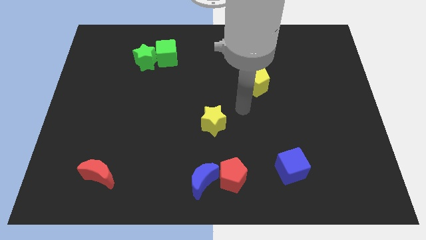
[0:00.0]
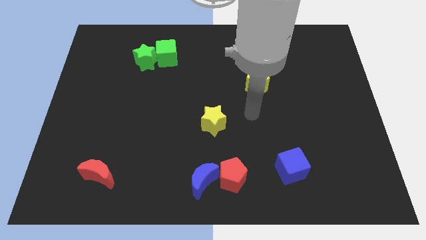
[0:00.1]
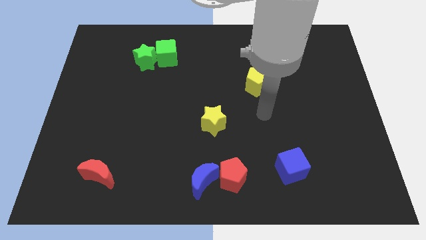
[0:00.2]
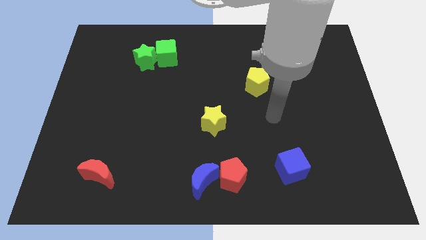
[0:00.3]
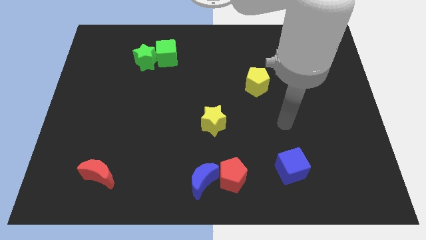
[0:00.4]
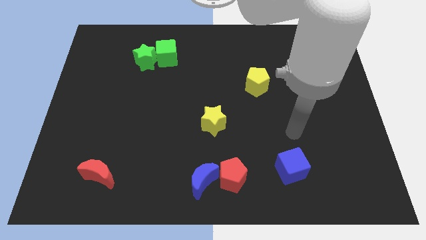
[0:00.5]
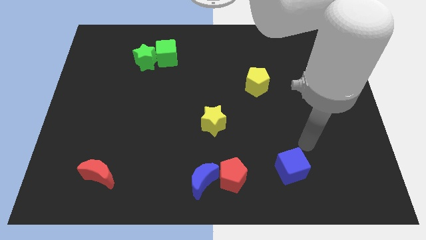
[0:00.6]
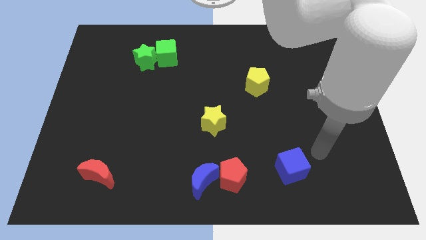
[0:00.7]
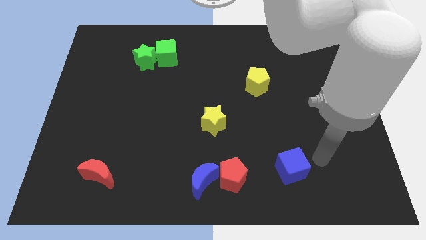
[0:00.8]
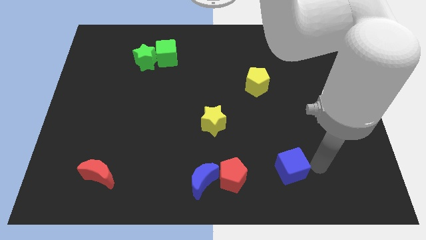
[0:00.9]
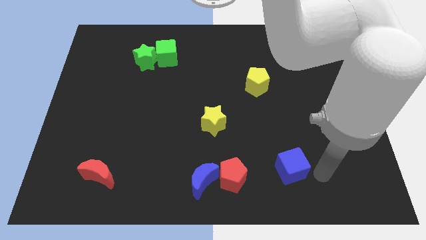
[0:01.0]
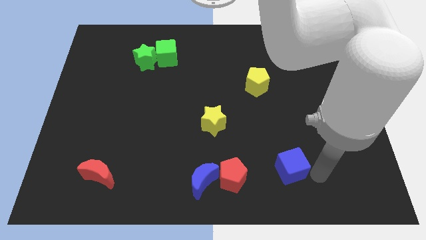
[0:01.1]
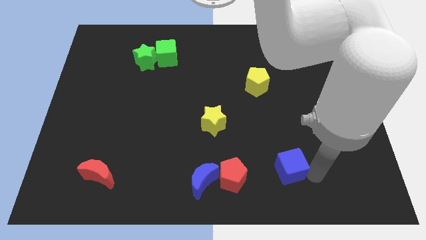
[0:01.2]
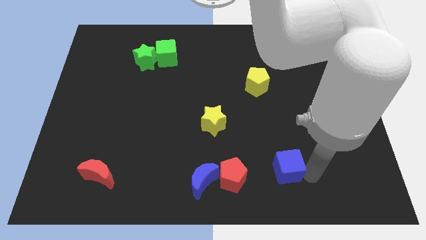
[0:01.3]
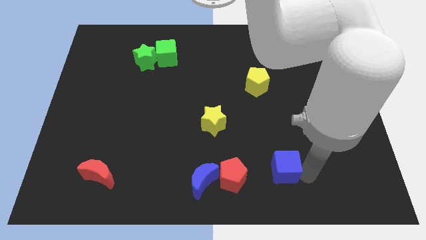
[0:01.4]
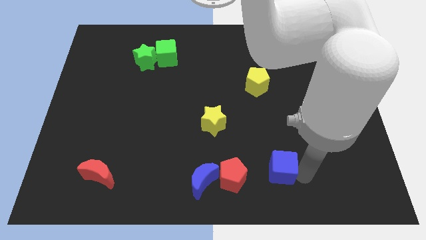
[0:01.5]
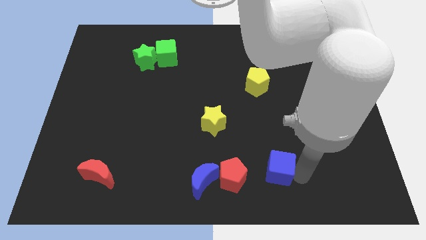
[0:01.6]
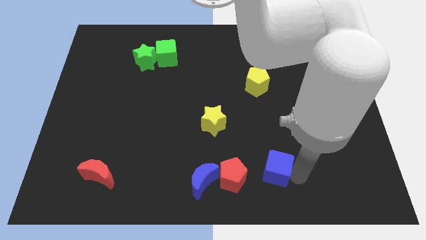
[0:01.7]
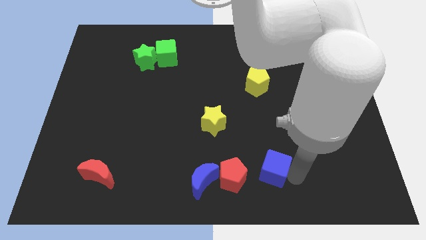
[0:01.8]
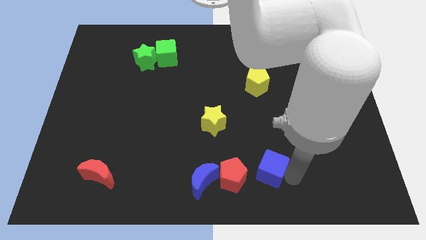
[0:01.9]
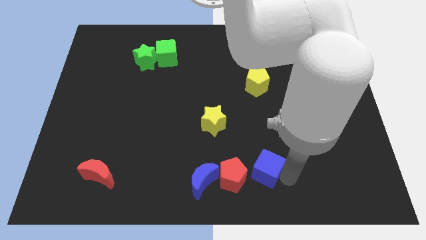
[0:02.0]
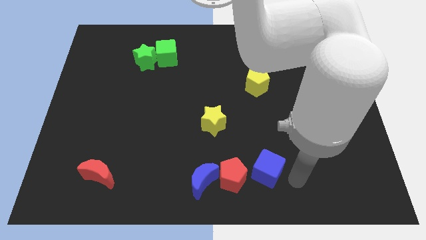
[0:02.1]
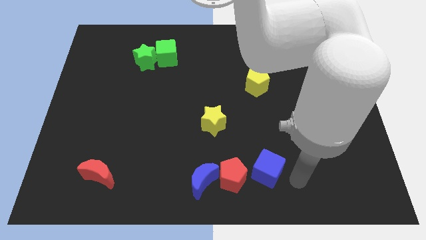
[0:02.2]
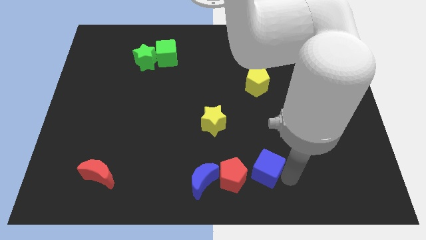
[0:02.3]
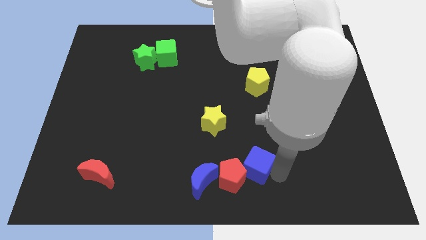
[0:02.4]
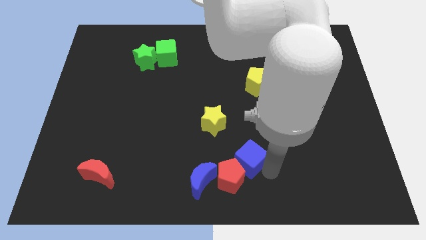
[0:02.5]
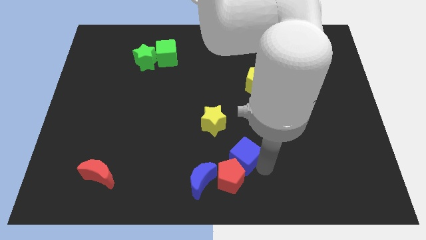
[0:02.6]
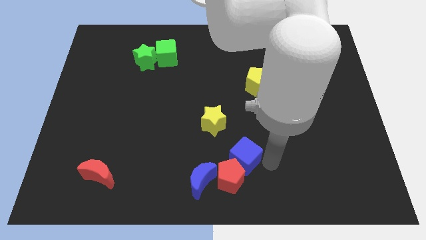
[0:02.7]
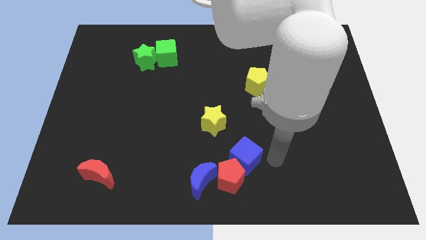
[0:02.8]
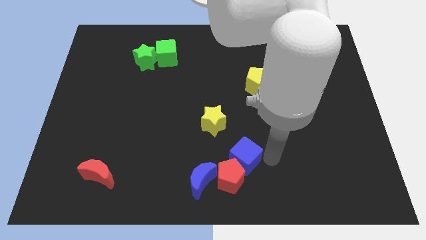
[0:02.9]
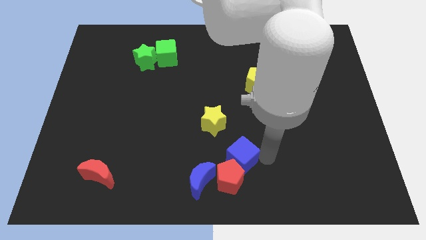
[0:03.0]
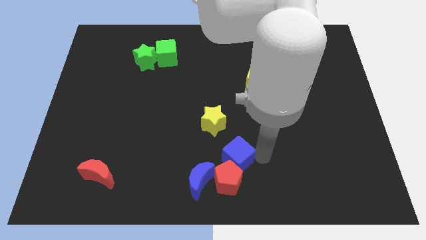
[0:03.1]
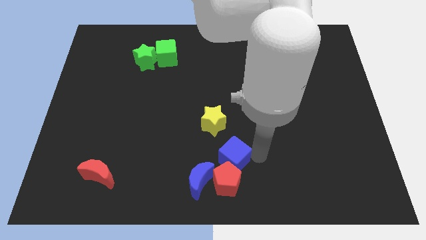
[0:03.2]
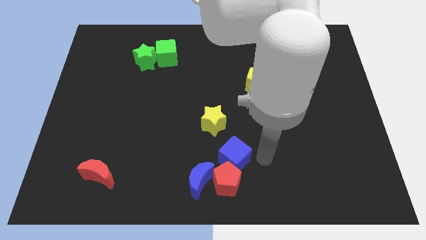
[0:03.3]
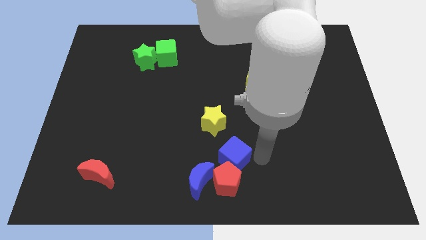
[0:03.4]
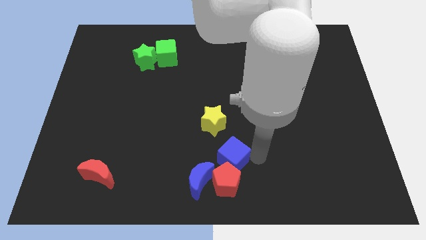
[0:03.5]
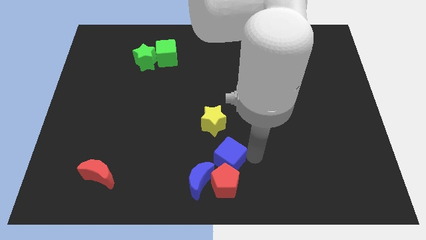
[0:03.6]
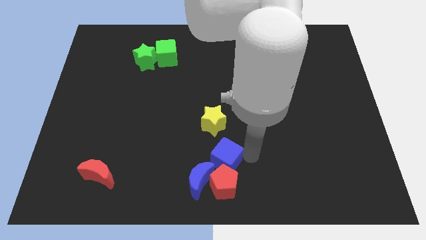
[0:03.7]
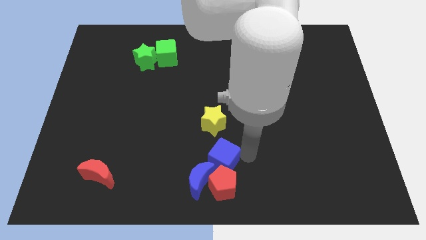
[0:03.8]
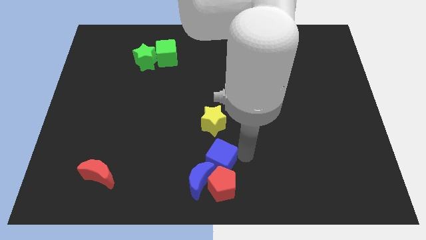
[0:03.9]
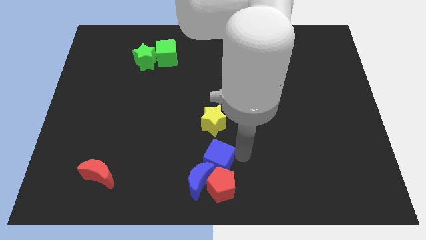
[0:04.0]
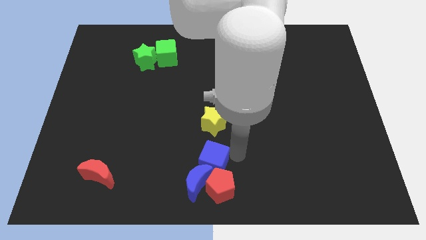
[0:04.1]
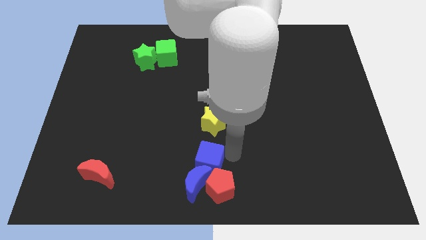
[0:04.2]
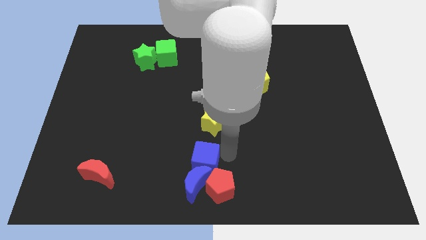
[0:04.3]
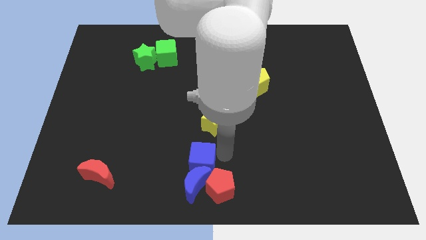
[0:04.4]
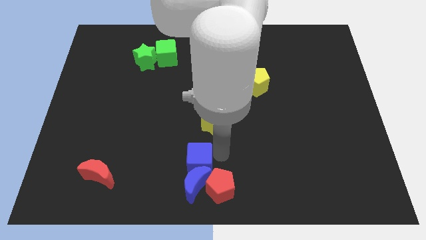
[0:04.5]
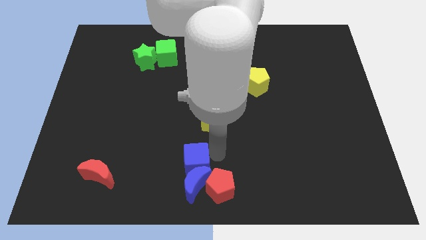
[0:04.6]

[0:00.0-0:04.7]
move the blue cube to the left

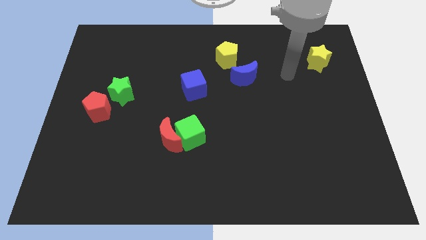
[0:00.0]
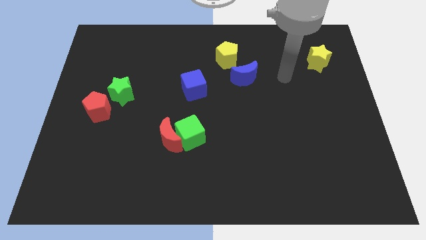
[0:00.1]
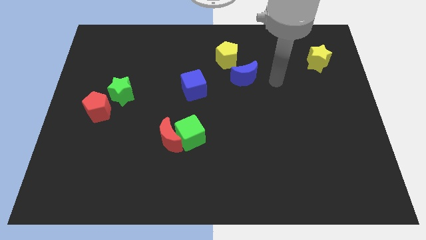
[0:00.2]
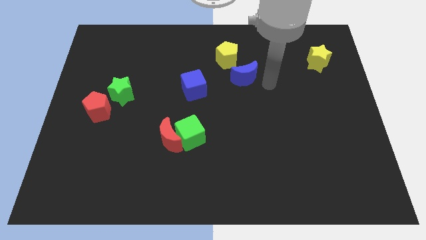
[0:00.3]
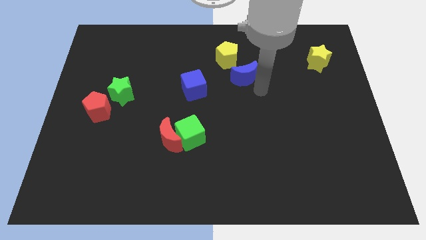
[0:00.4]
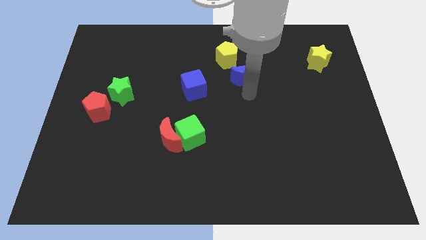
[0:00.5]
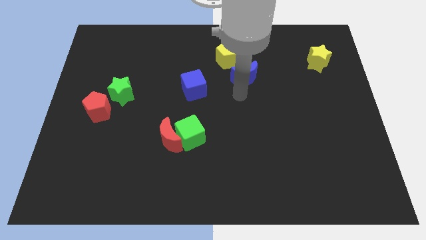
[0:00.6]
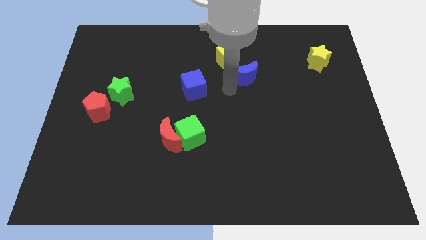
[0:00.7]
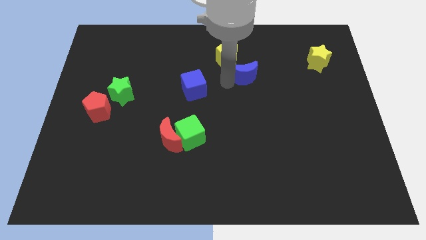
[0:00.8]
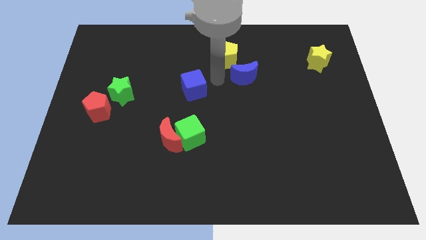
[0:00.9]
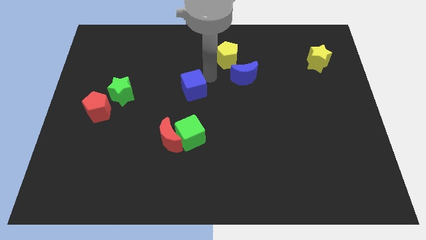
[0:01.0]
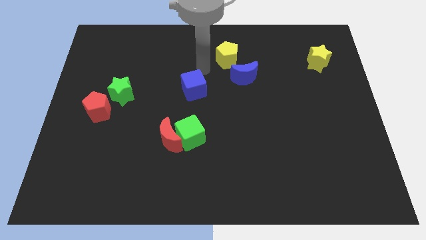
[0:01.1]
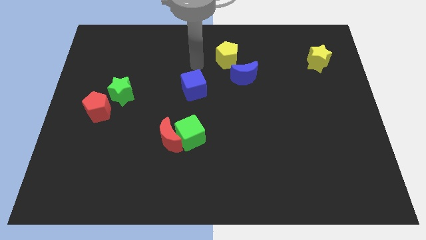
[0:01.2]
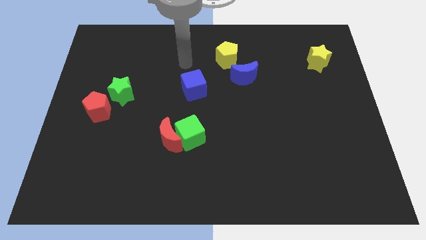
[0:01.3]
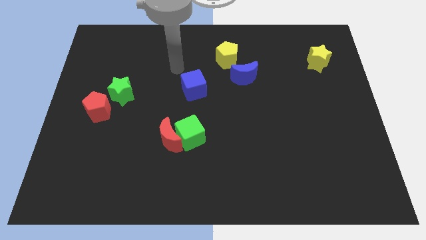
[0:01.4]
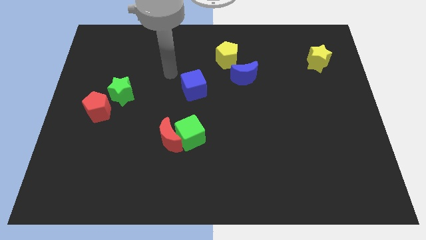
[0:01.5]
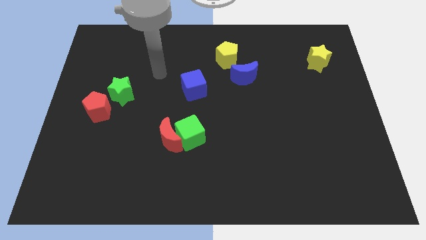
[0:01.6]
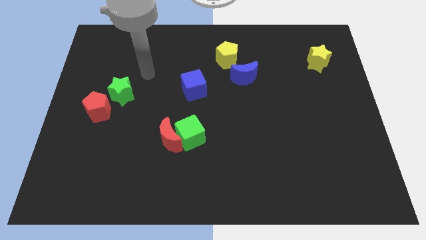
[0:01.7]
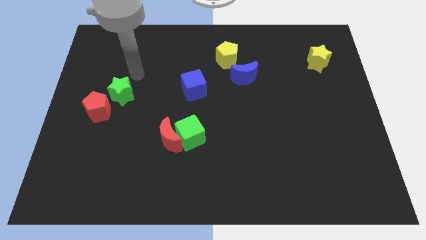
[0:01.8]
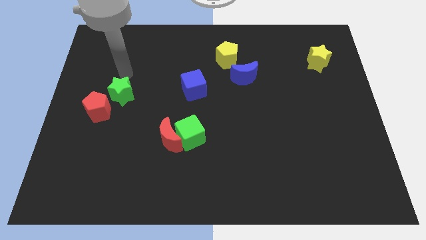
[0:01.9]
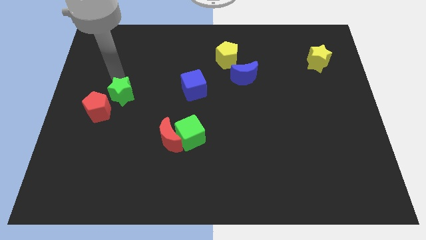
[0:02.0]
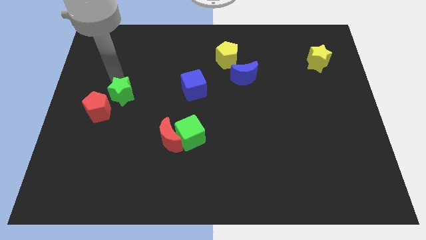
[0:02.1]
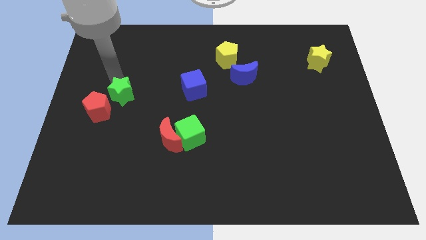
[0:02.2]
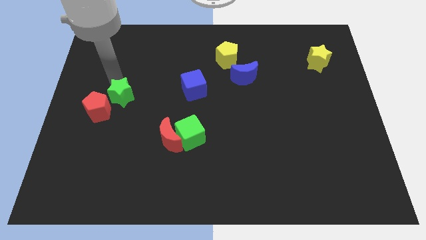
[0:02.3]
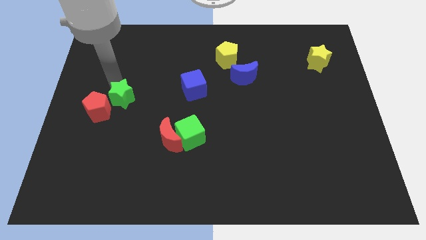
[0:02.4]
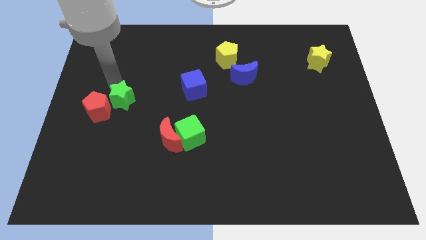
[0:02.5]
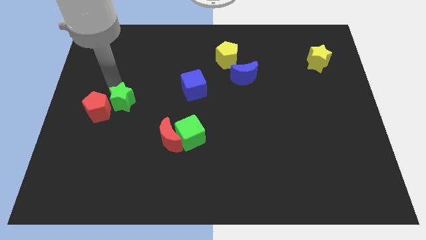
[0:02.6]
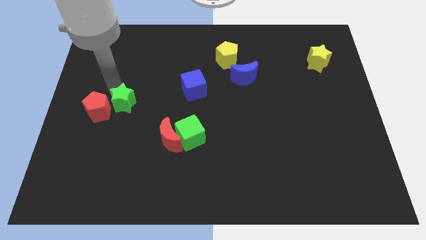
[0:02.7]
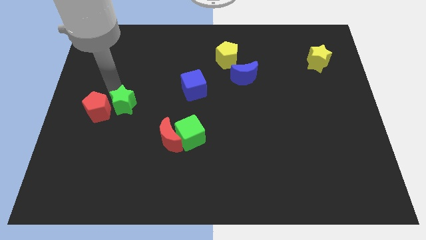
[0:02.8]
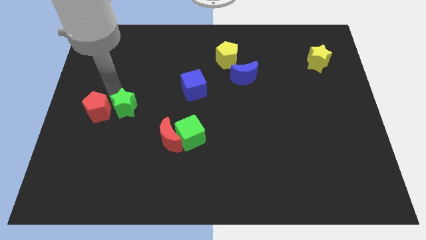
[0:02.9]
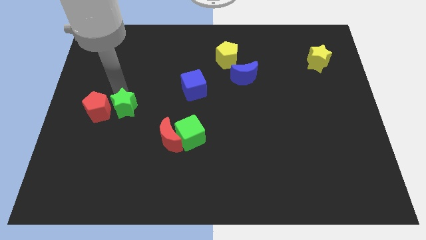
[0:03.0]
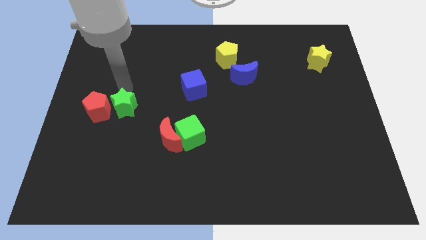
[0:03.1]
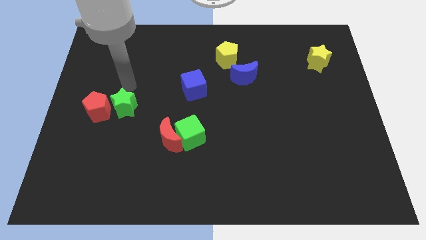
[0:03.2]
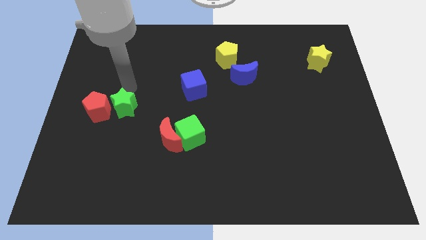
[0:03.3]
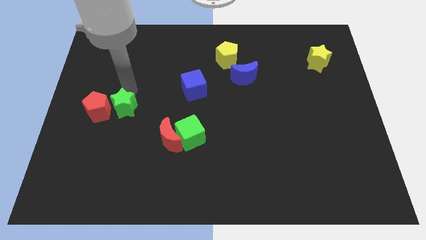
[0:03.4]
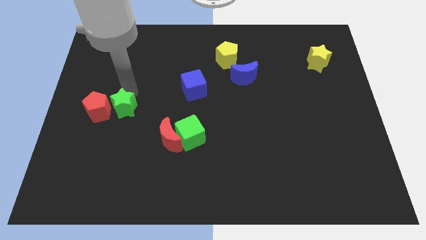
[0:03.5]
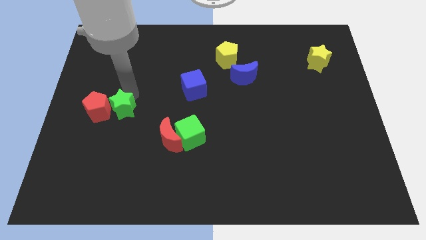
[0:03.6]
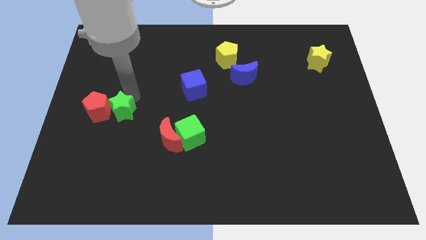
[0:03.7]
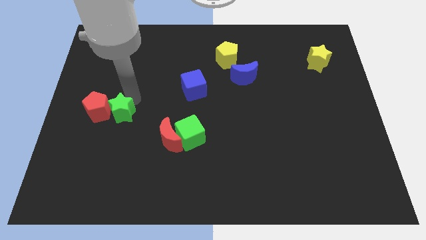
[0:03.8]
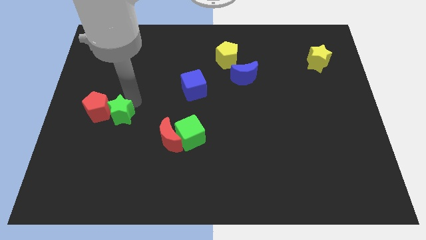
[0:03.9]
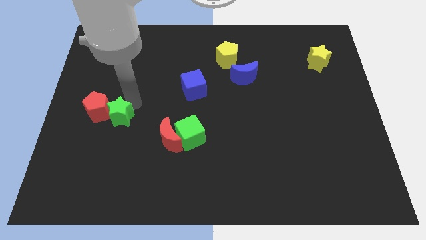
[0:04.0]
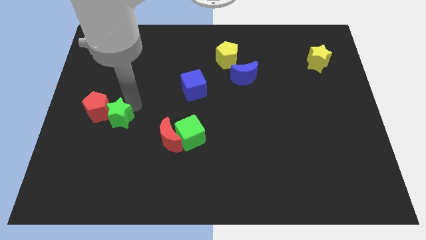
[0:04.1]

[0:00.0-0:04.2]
push the green star downwards slightly
